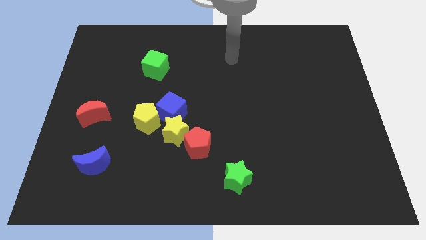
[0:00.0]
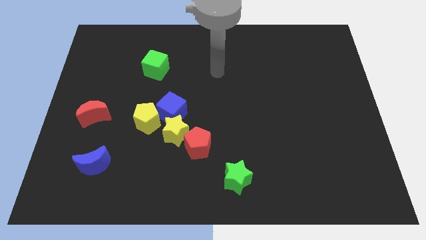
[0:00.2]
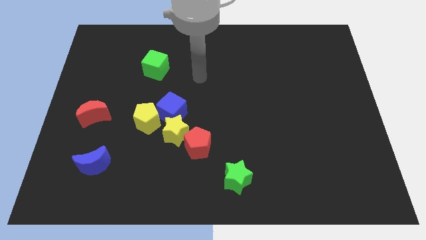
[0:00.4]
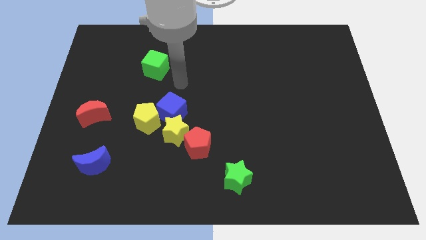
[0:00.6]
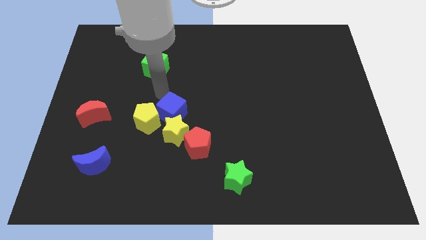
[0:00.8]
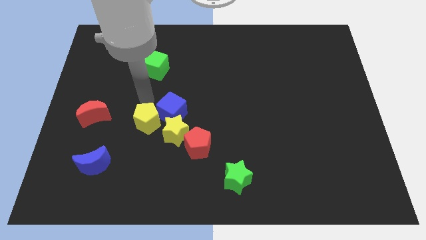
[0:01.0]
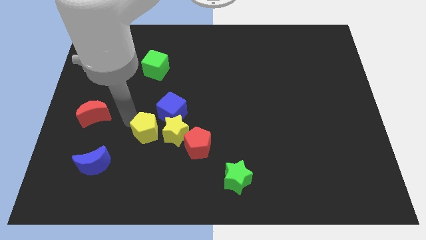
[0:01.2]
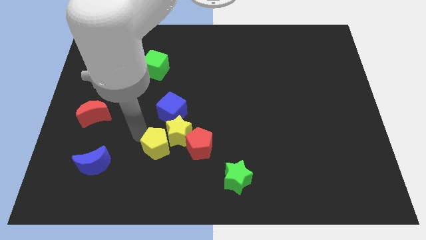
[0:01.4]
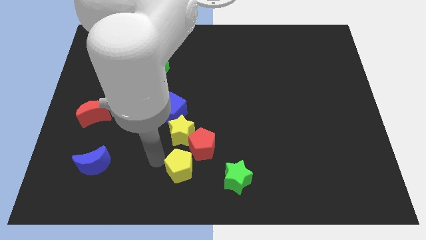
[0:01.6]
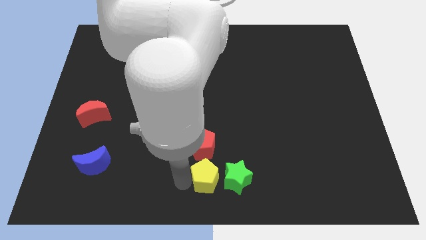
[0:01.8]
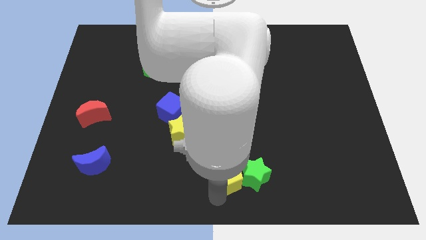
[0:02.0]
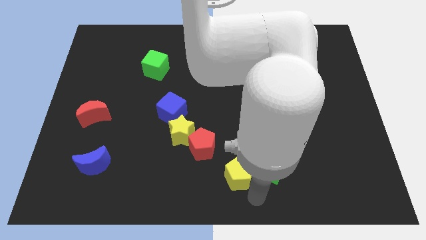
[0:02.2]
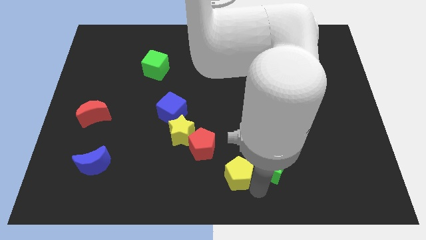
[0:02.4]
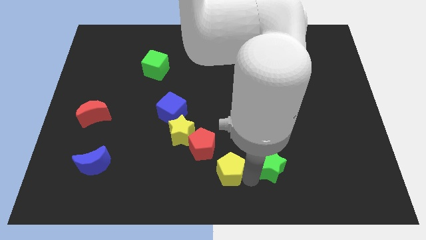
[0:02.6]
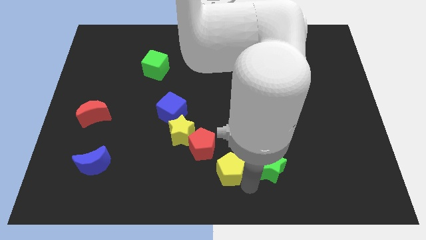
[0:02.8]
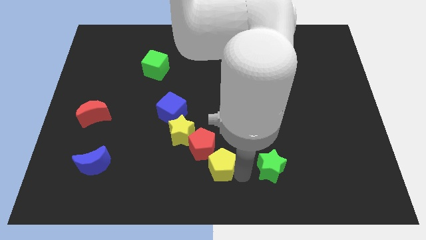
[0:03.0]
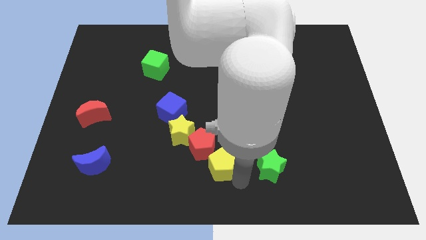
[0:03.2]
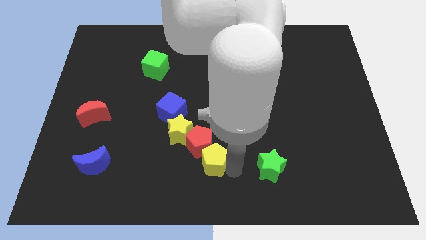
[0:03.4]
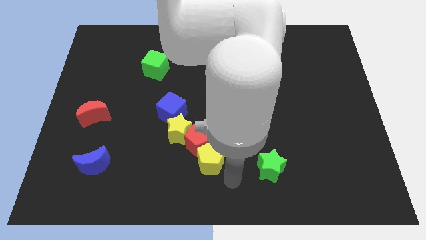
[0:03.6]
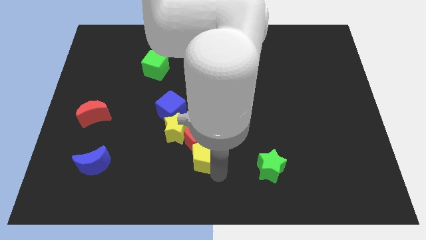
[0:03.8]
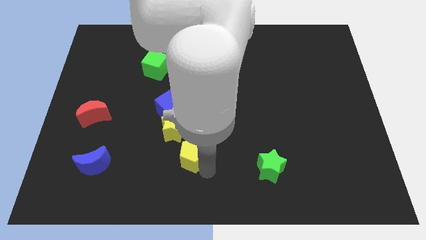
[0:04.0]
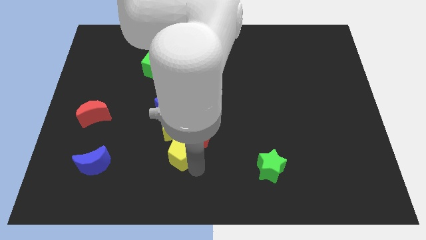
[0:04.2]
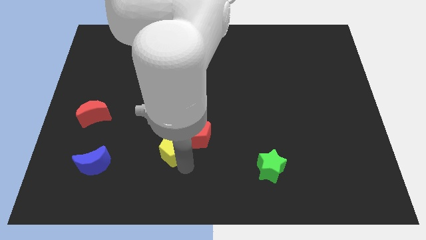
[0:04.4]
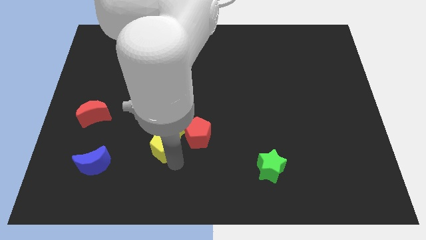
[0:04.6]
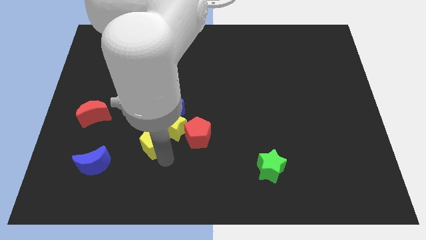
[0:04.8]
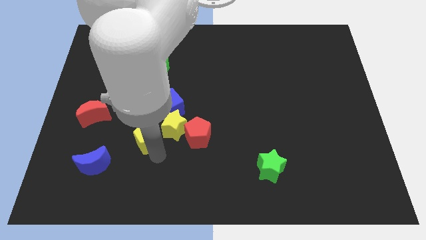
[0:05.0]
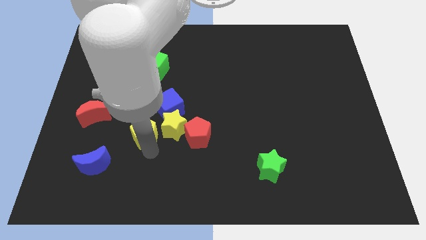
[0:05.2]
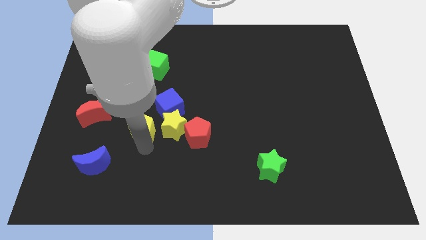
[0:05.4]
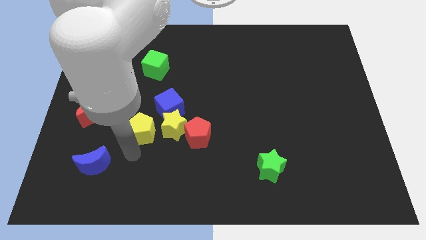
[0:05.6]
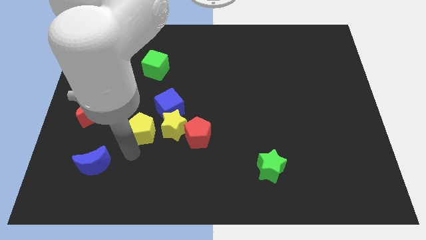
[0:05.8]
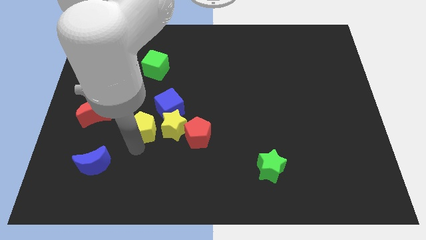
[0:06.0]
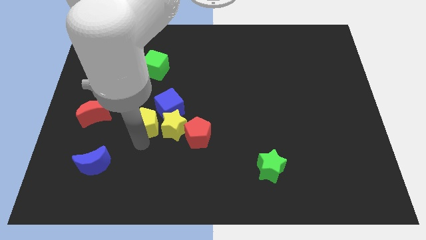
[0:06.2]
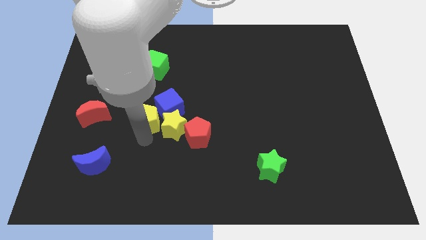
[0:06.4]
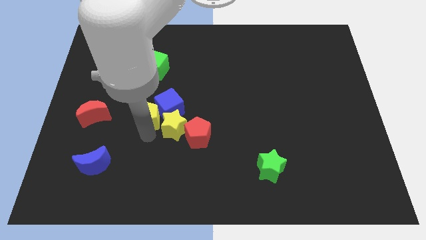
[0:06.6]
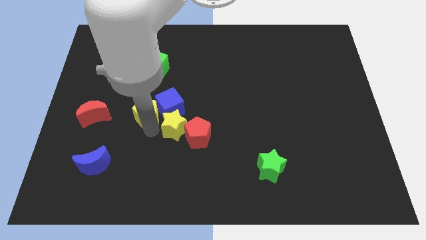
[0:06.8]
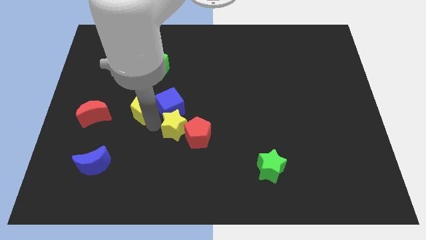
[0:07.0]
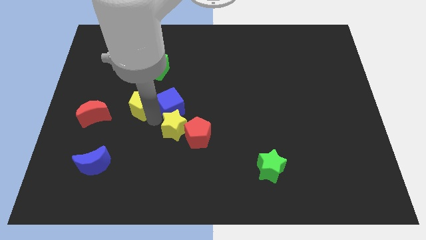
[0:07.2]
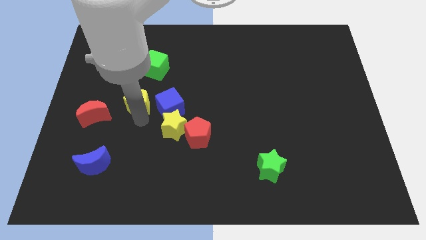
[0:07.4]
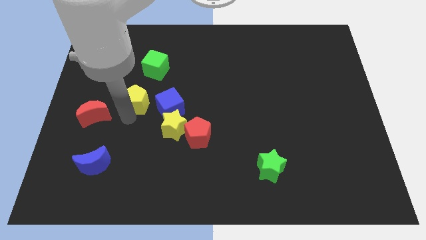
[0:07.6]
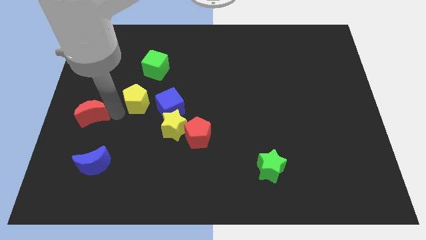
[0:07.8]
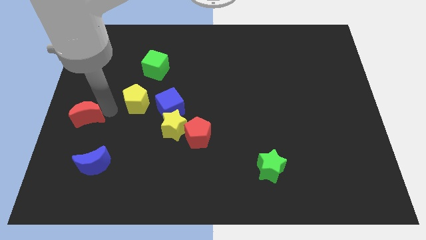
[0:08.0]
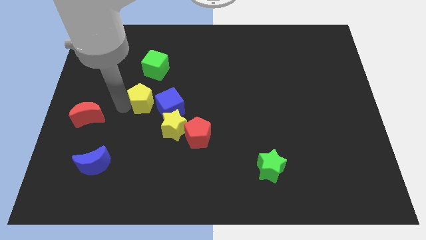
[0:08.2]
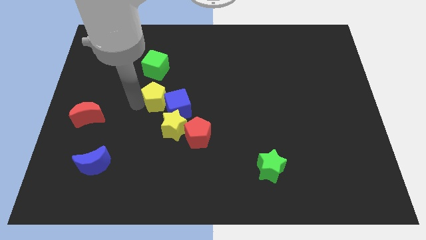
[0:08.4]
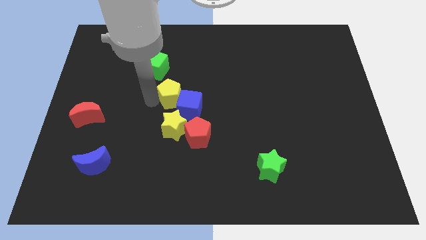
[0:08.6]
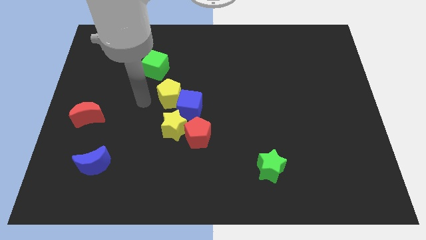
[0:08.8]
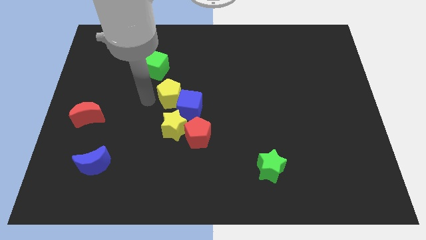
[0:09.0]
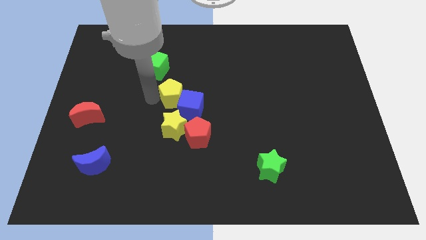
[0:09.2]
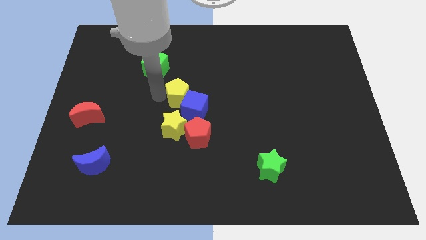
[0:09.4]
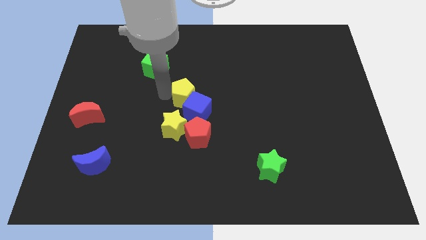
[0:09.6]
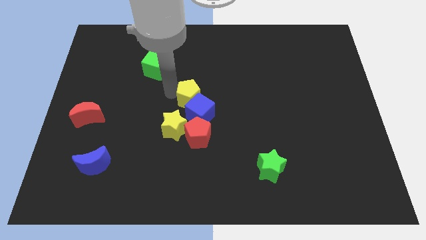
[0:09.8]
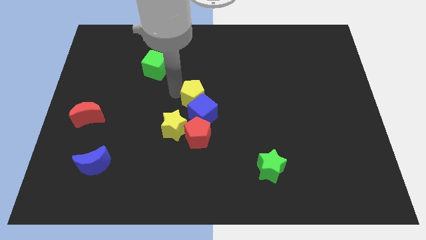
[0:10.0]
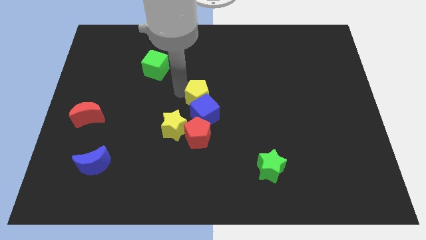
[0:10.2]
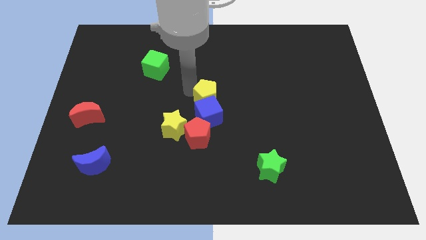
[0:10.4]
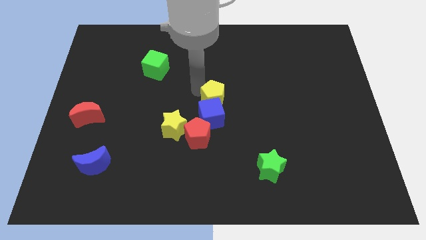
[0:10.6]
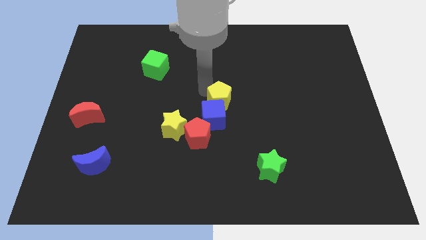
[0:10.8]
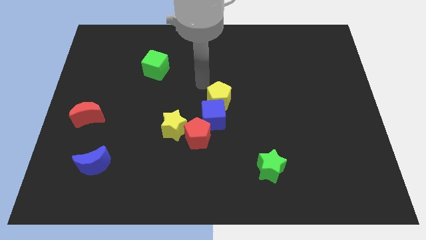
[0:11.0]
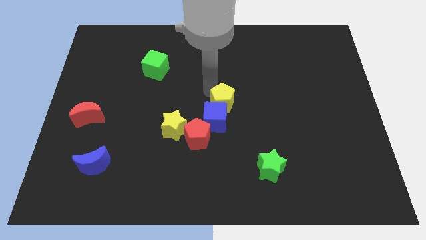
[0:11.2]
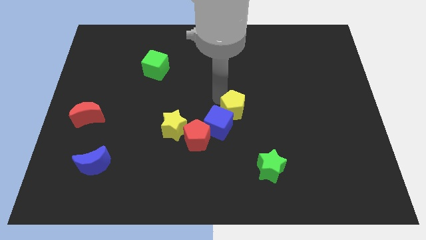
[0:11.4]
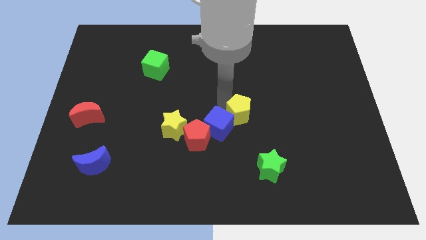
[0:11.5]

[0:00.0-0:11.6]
push the yellow pentagon right

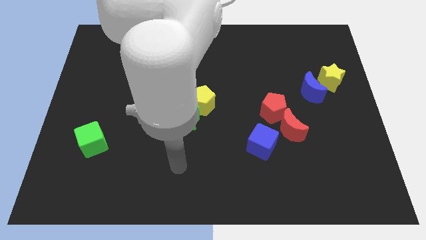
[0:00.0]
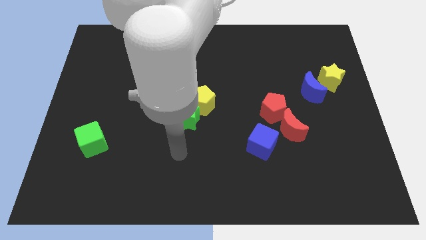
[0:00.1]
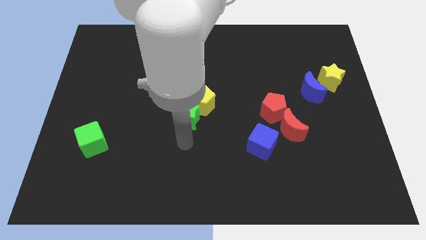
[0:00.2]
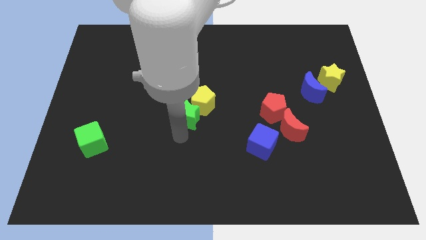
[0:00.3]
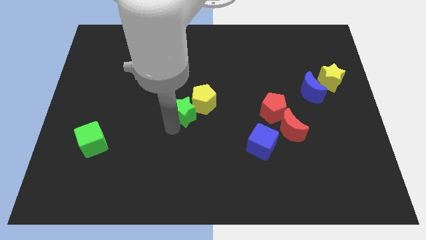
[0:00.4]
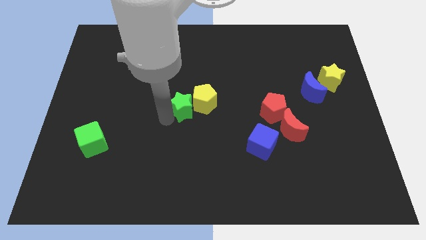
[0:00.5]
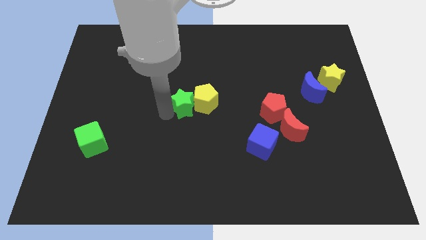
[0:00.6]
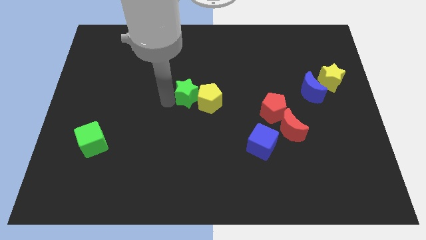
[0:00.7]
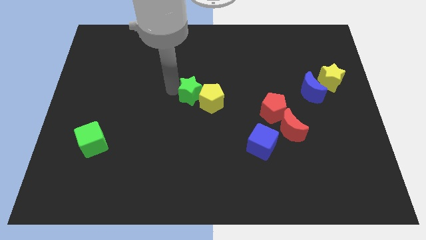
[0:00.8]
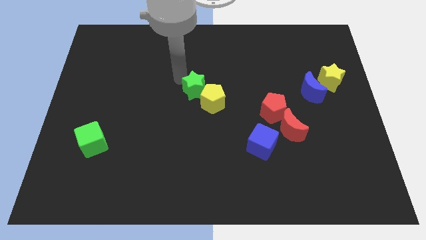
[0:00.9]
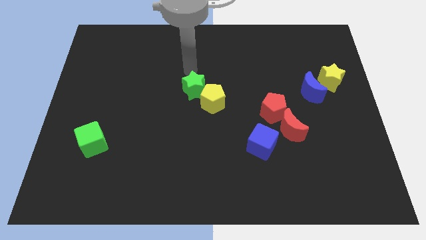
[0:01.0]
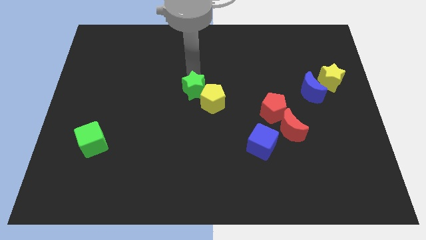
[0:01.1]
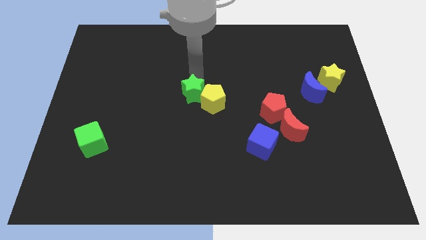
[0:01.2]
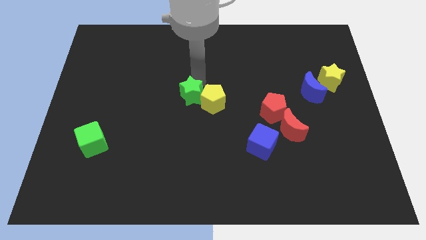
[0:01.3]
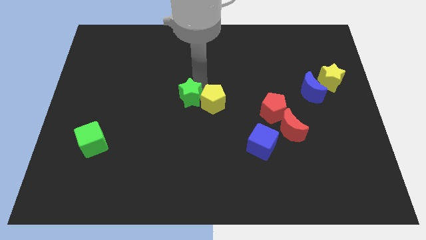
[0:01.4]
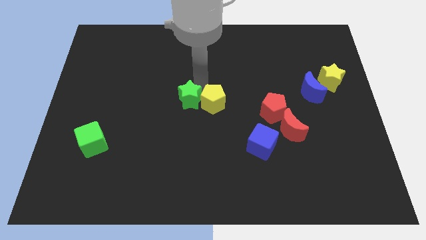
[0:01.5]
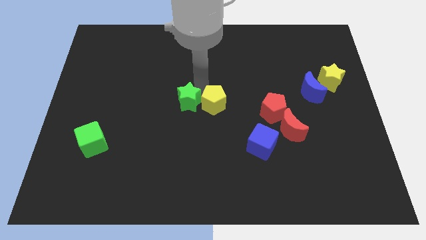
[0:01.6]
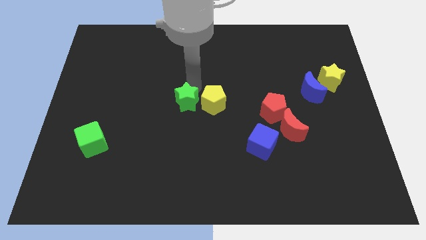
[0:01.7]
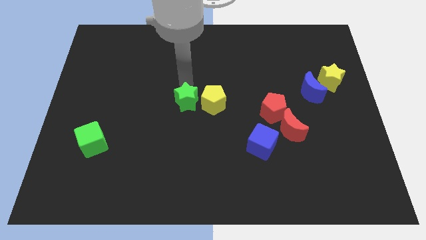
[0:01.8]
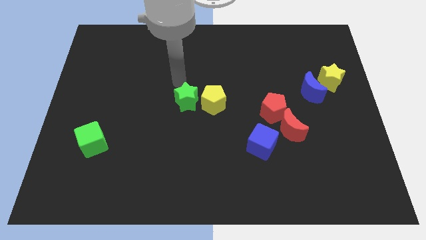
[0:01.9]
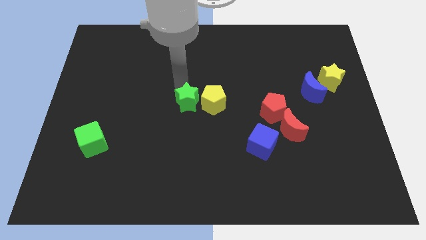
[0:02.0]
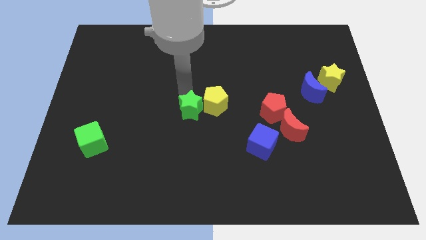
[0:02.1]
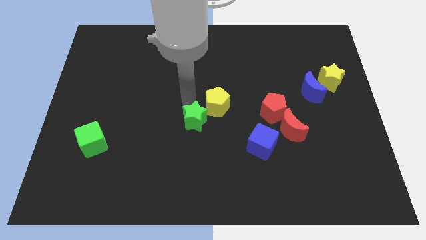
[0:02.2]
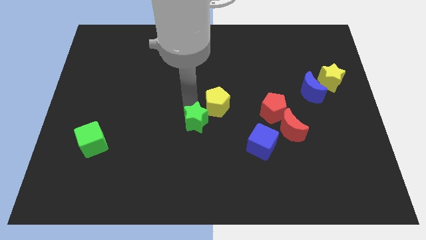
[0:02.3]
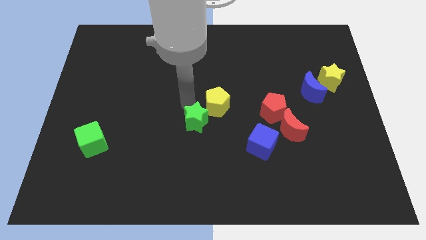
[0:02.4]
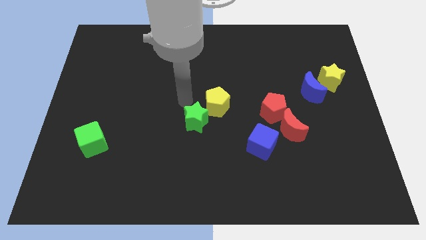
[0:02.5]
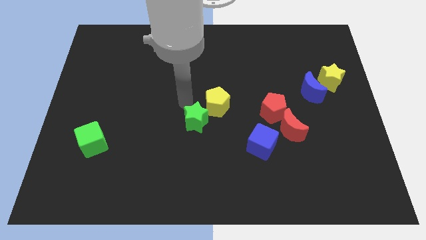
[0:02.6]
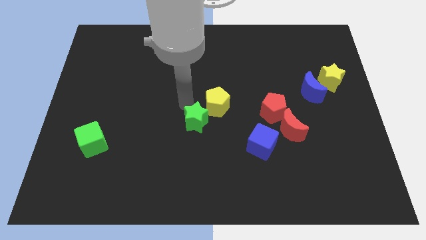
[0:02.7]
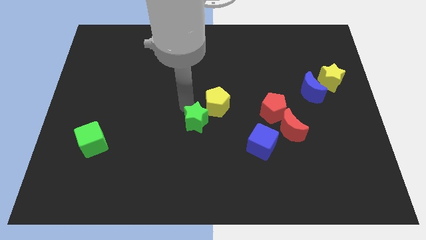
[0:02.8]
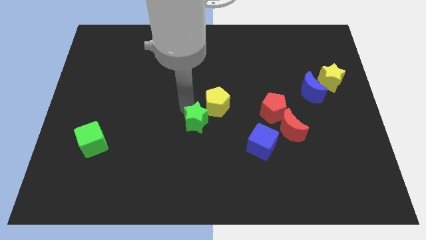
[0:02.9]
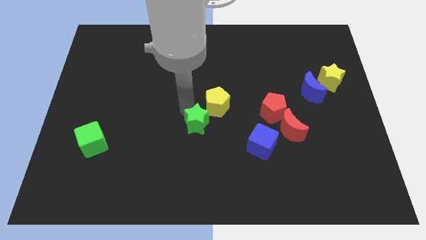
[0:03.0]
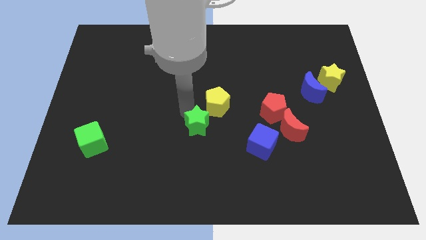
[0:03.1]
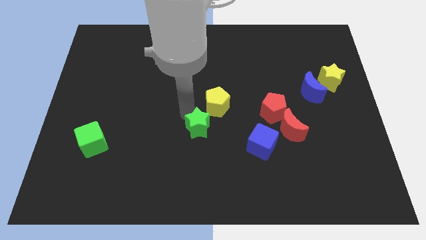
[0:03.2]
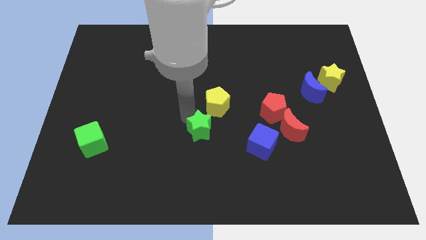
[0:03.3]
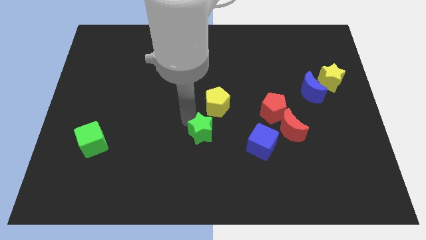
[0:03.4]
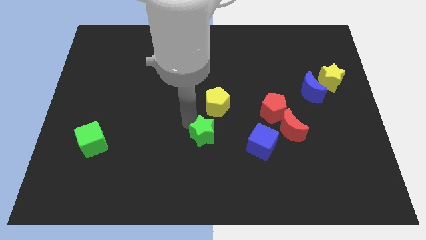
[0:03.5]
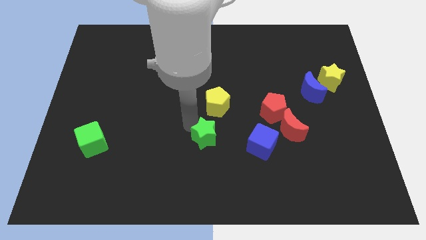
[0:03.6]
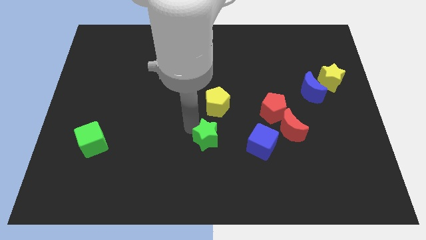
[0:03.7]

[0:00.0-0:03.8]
slide the green star a bit downwards and right
